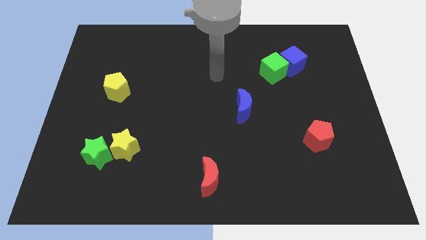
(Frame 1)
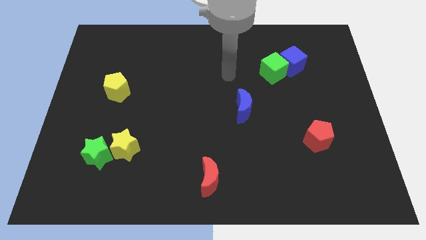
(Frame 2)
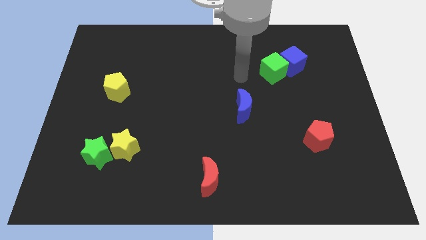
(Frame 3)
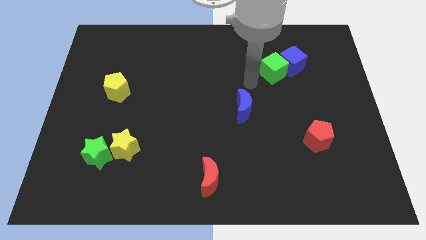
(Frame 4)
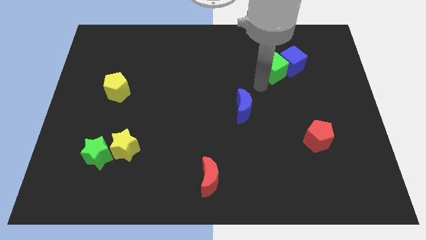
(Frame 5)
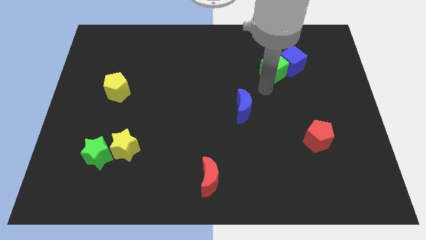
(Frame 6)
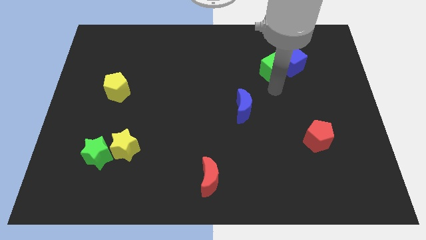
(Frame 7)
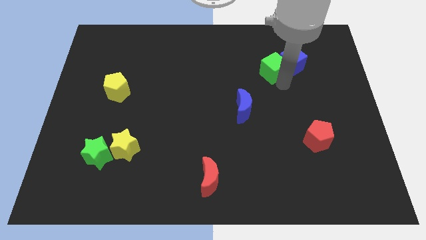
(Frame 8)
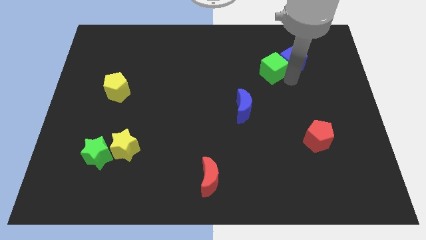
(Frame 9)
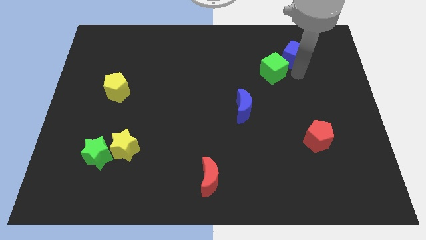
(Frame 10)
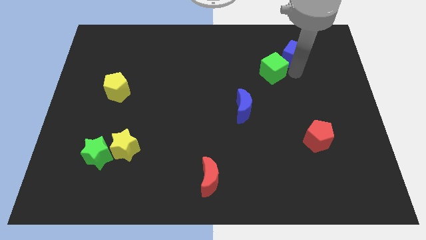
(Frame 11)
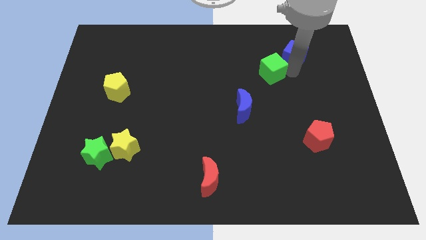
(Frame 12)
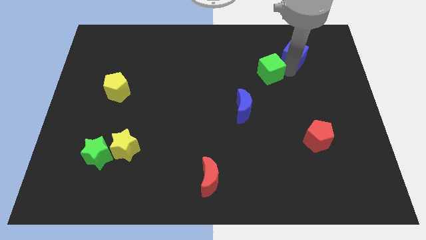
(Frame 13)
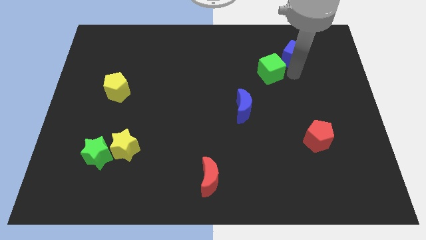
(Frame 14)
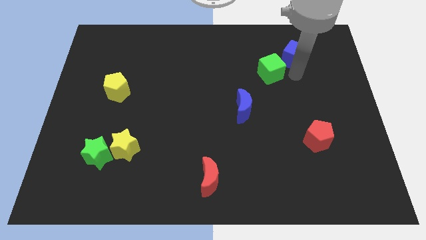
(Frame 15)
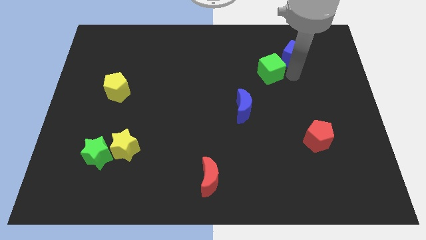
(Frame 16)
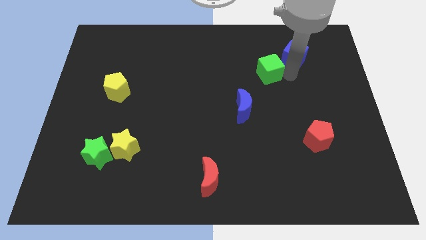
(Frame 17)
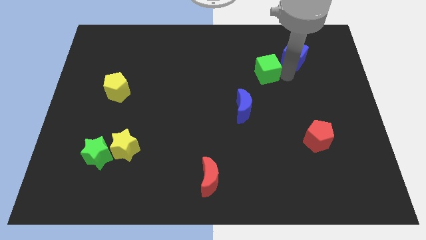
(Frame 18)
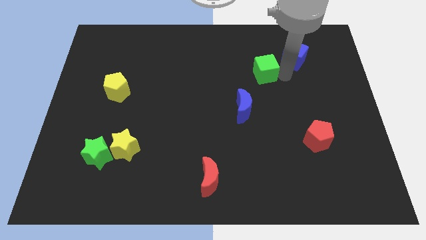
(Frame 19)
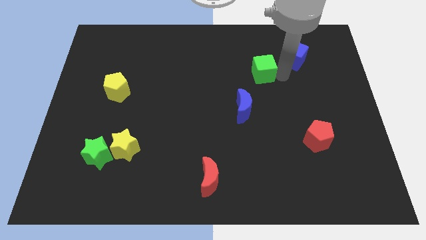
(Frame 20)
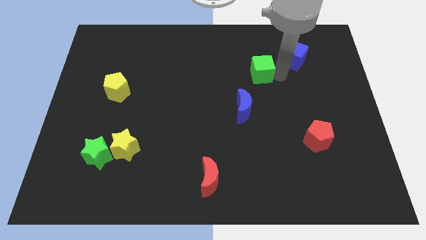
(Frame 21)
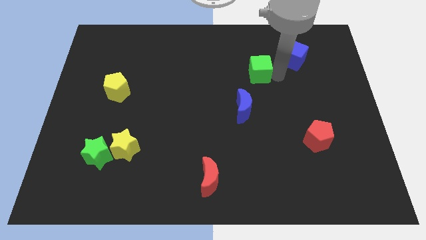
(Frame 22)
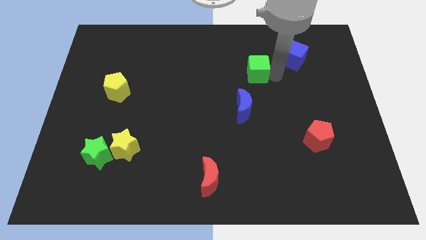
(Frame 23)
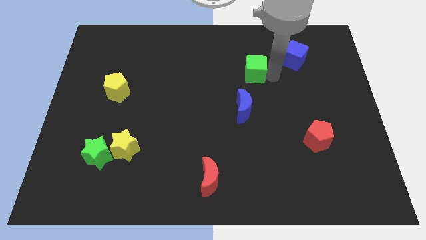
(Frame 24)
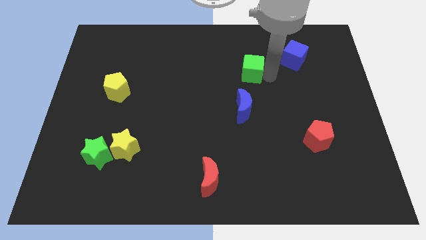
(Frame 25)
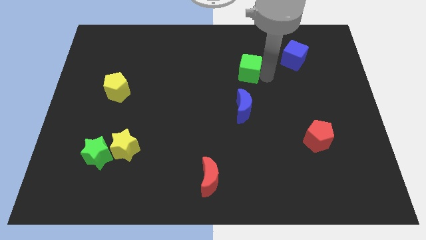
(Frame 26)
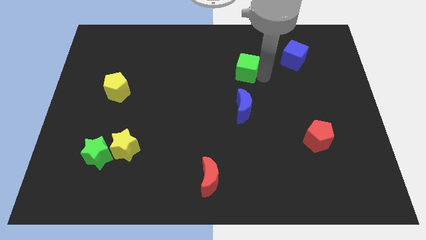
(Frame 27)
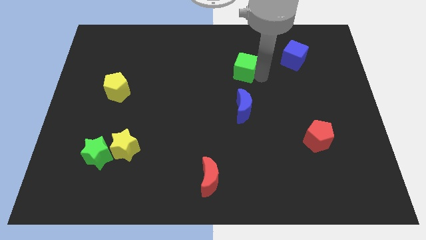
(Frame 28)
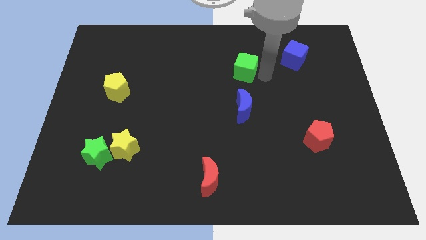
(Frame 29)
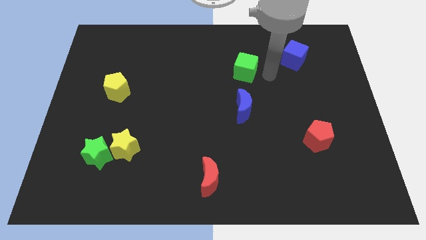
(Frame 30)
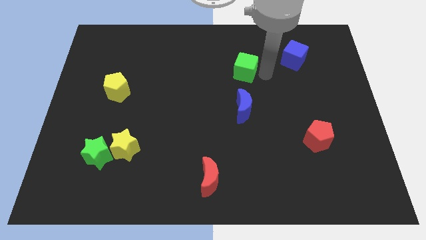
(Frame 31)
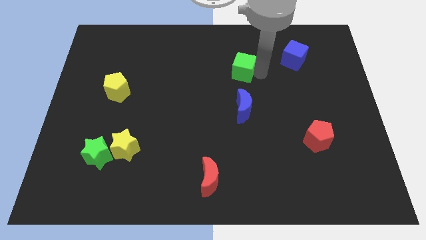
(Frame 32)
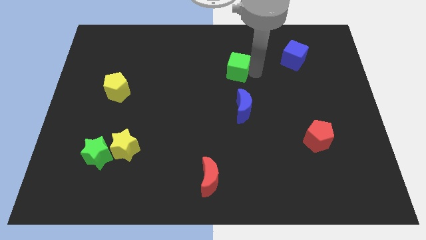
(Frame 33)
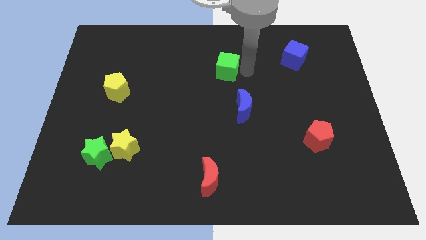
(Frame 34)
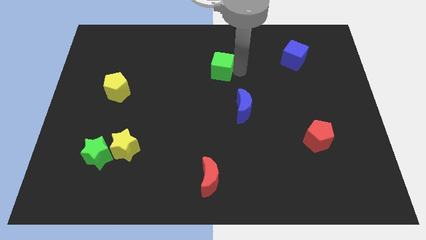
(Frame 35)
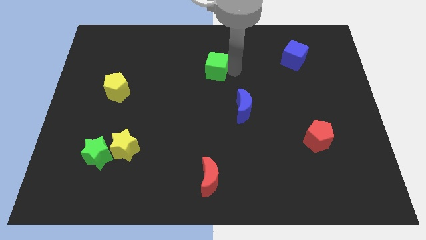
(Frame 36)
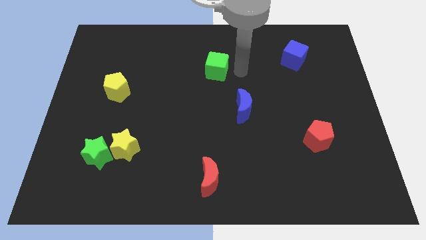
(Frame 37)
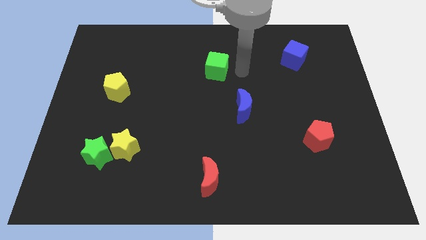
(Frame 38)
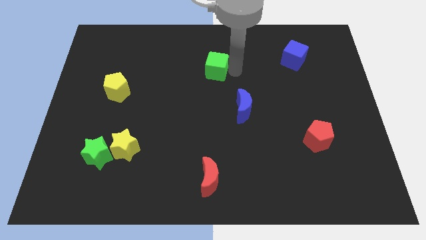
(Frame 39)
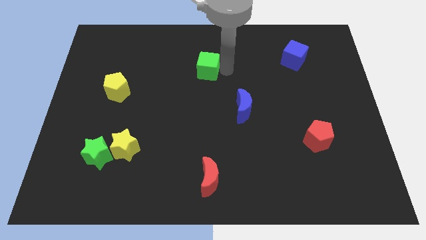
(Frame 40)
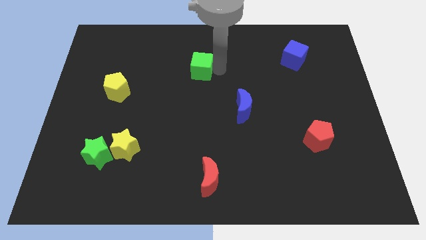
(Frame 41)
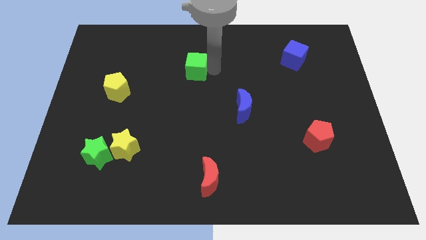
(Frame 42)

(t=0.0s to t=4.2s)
slide the green cube to the left

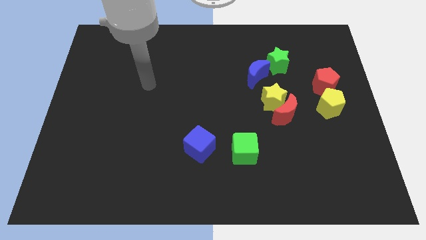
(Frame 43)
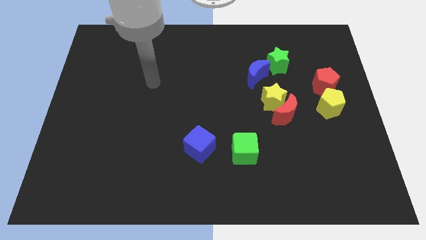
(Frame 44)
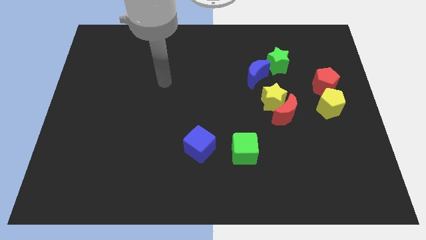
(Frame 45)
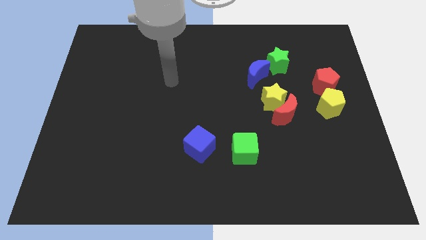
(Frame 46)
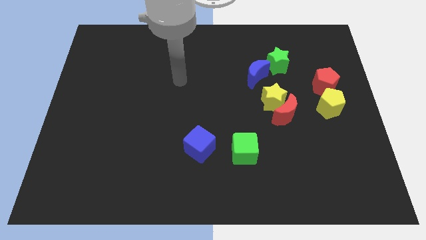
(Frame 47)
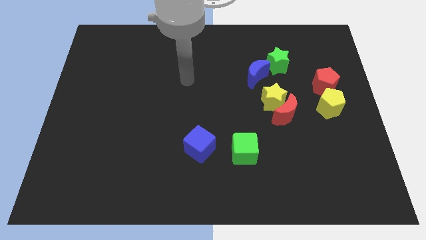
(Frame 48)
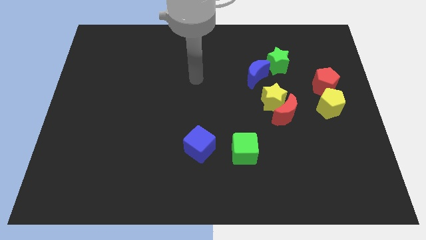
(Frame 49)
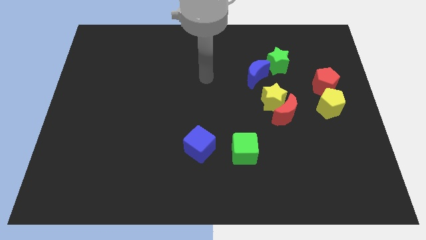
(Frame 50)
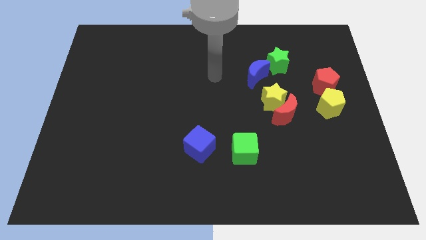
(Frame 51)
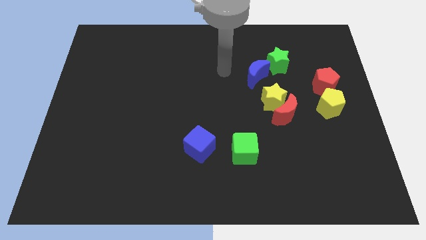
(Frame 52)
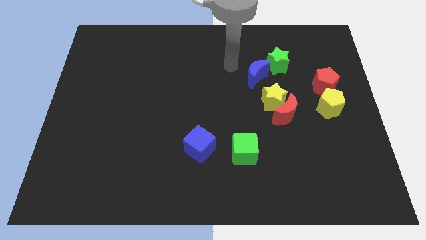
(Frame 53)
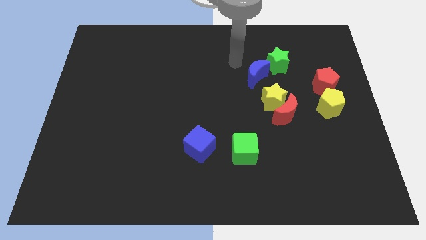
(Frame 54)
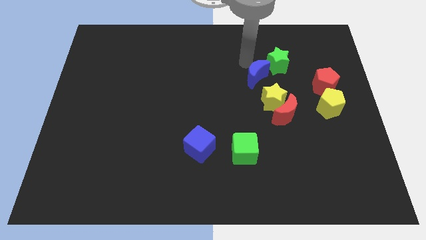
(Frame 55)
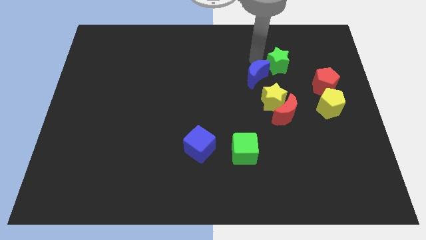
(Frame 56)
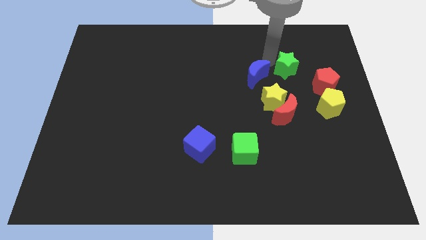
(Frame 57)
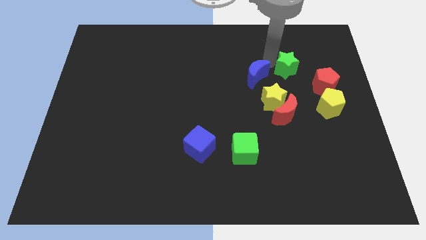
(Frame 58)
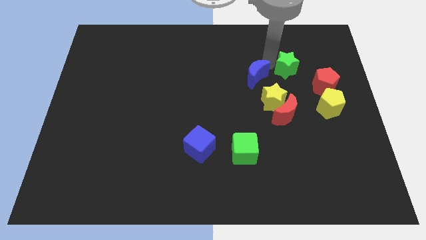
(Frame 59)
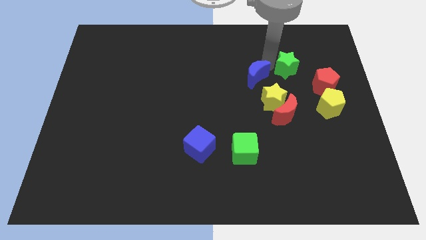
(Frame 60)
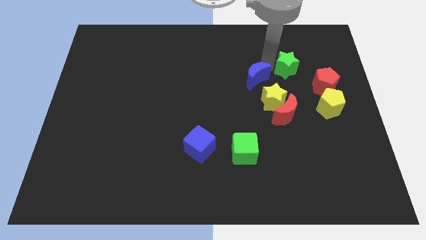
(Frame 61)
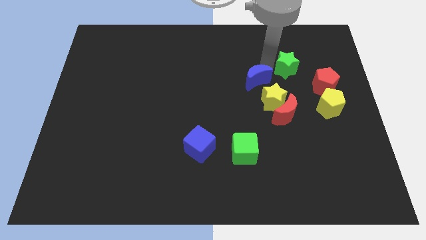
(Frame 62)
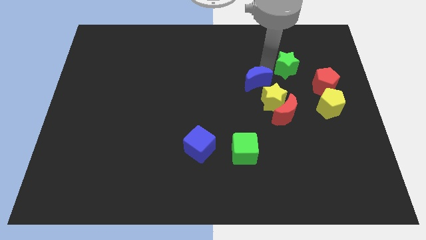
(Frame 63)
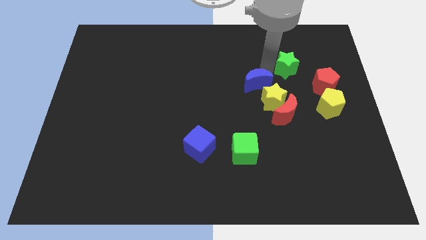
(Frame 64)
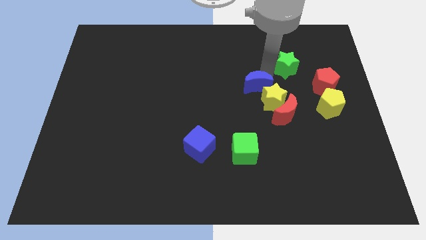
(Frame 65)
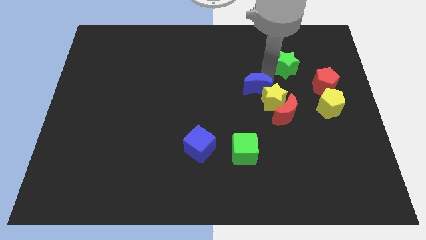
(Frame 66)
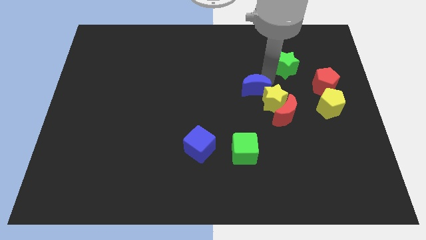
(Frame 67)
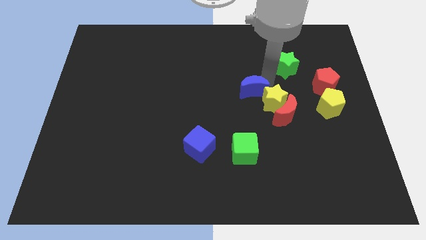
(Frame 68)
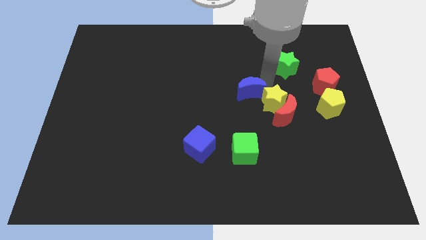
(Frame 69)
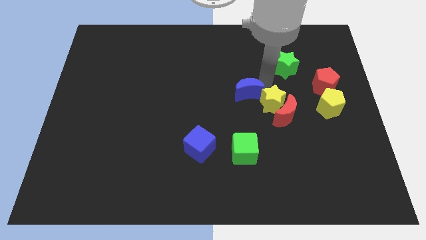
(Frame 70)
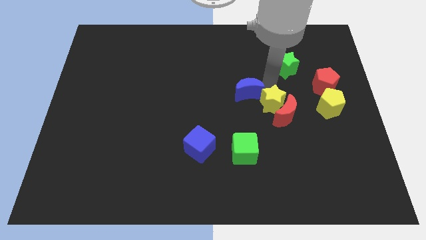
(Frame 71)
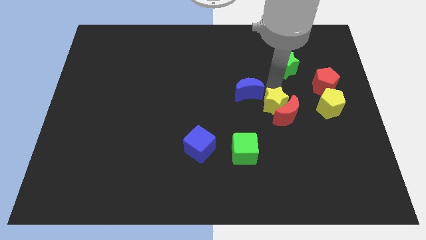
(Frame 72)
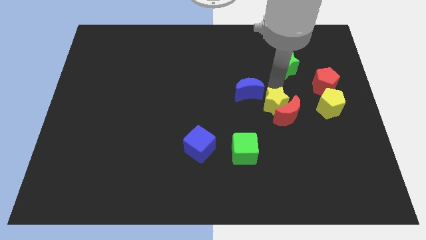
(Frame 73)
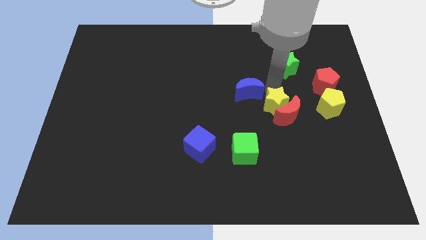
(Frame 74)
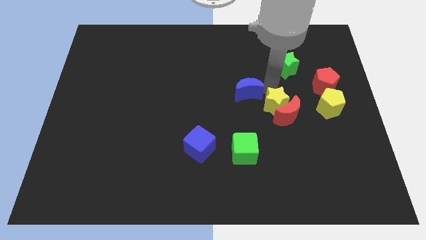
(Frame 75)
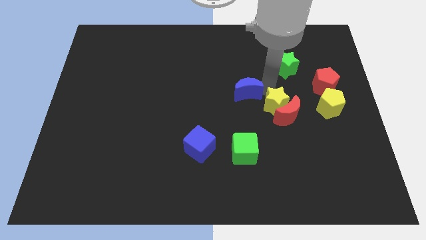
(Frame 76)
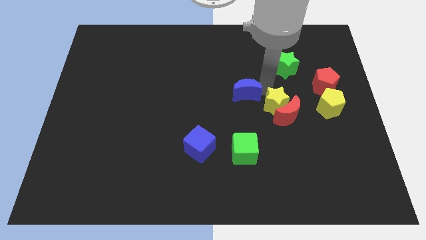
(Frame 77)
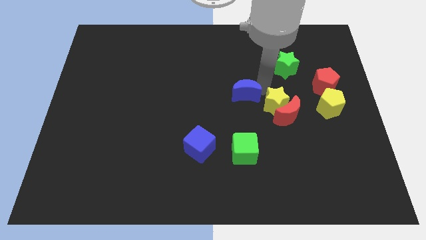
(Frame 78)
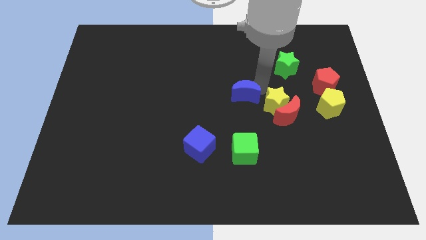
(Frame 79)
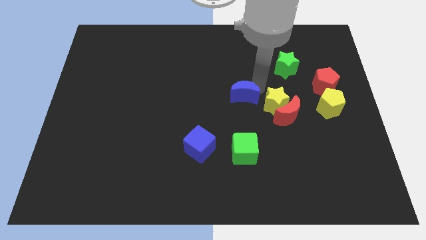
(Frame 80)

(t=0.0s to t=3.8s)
move the blue moon a little diagonally downwards and left
